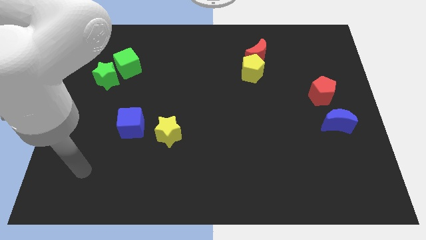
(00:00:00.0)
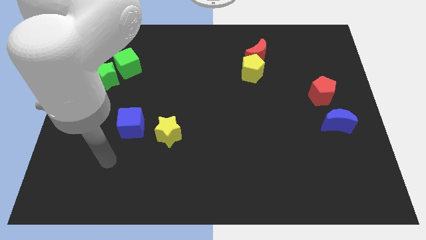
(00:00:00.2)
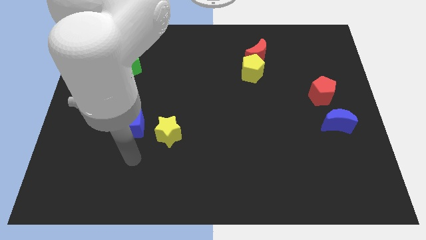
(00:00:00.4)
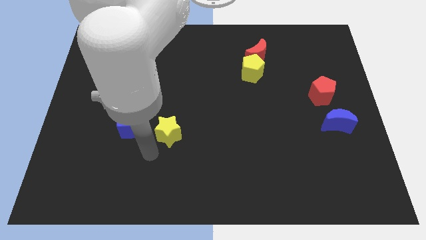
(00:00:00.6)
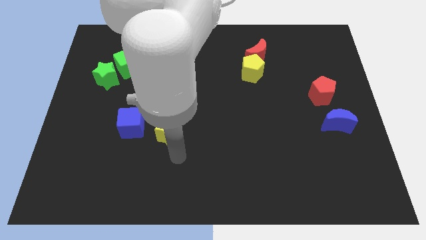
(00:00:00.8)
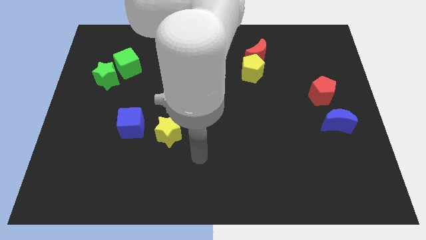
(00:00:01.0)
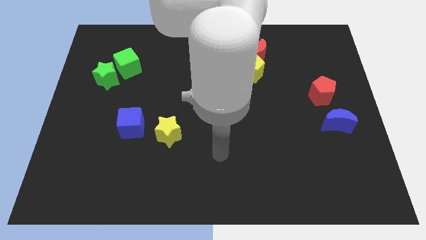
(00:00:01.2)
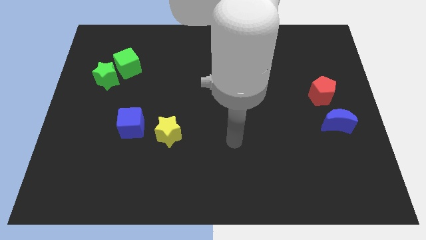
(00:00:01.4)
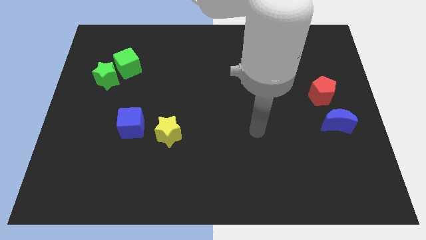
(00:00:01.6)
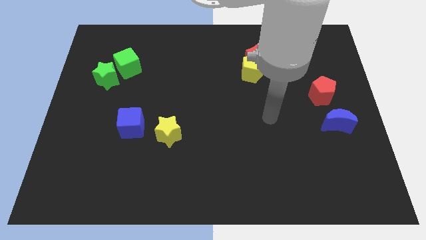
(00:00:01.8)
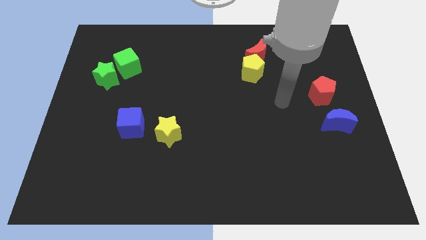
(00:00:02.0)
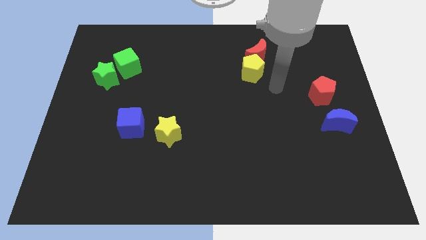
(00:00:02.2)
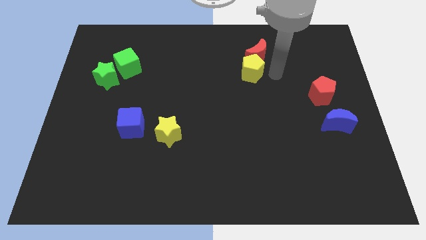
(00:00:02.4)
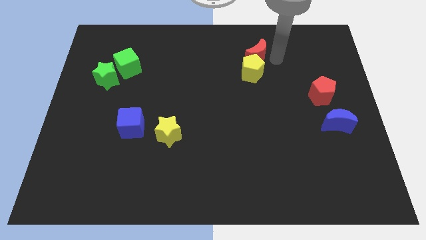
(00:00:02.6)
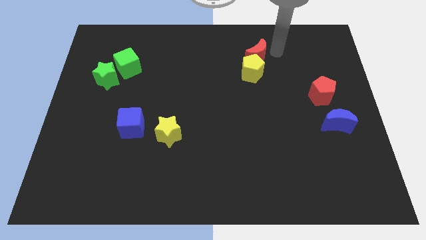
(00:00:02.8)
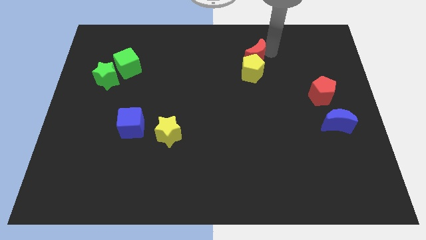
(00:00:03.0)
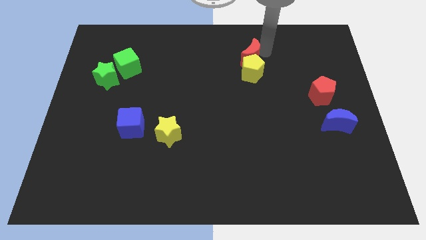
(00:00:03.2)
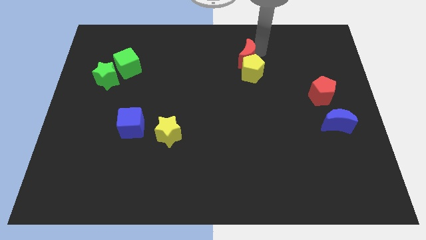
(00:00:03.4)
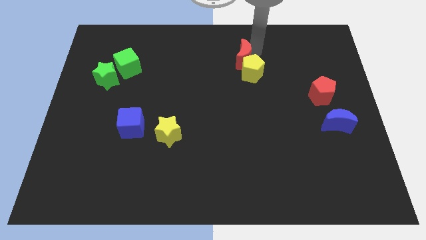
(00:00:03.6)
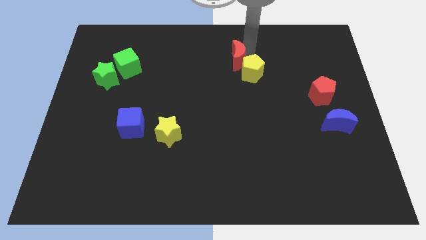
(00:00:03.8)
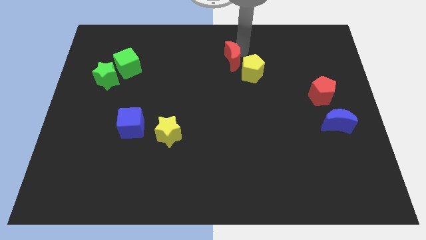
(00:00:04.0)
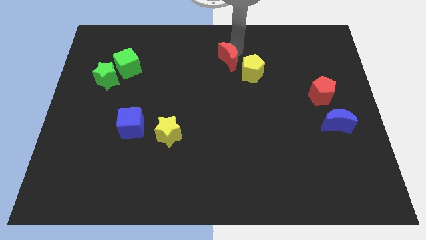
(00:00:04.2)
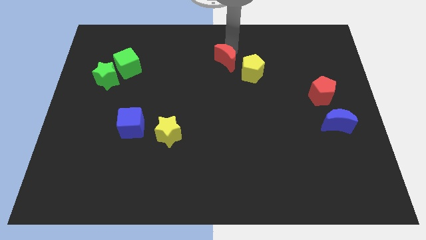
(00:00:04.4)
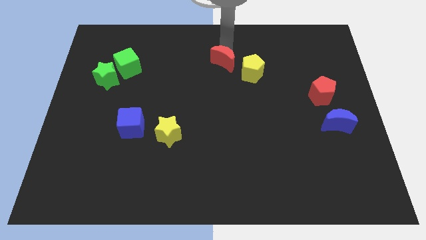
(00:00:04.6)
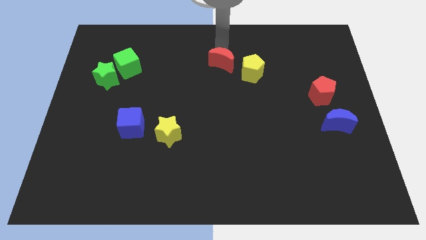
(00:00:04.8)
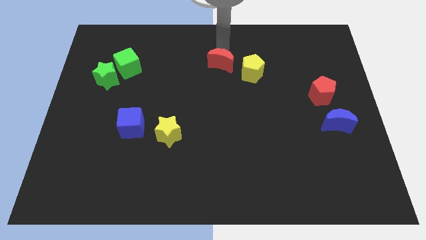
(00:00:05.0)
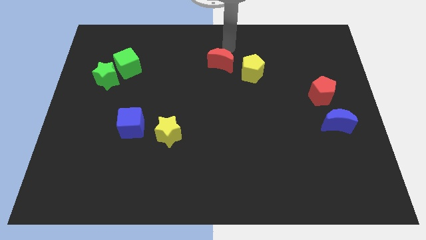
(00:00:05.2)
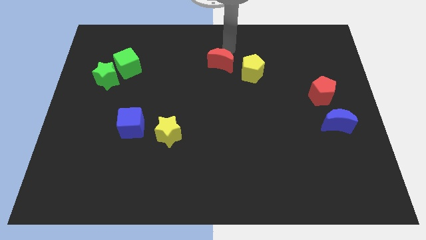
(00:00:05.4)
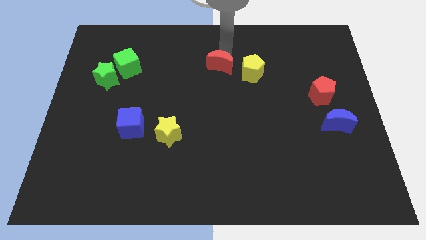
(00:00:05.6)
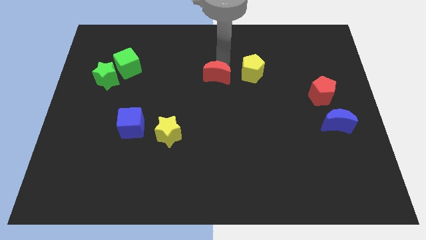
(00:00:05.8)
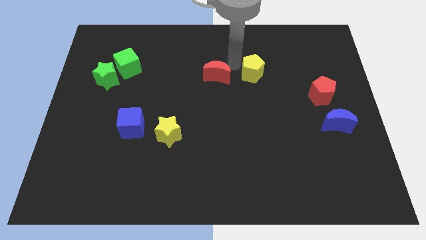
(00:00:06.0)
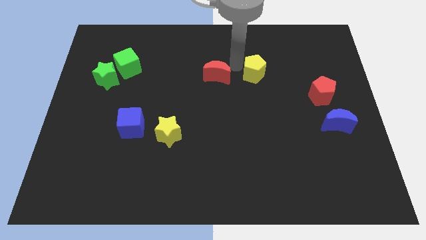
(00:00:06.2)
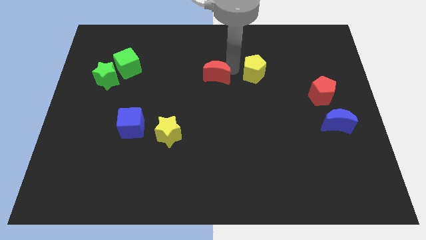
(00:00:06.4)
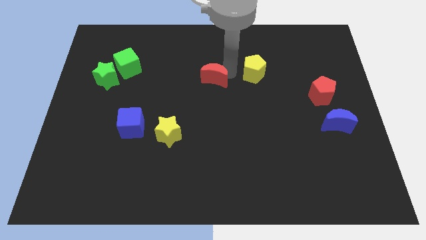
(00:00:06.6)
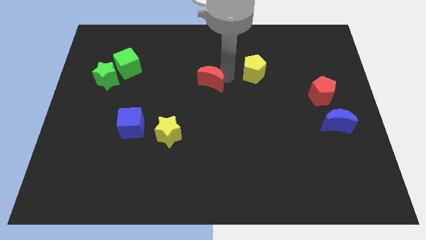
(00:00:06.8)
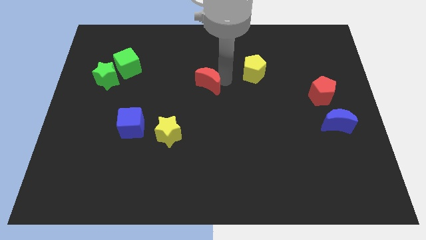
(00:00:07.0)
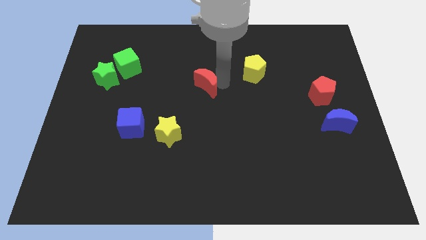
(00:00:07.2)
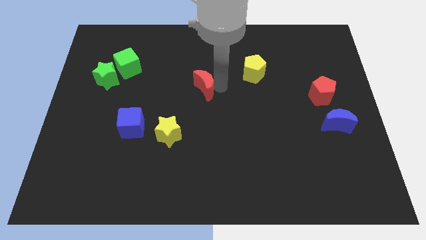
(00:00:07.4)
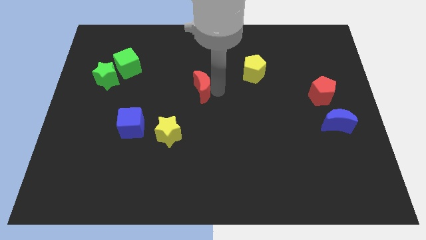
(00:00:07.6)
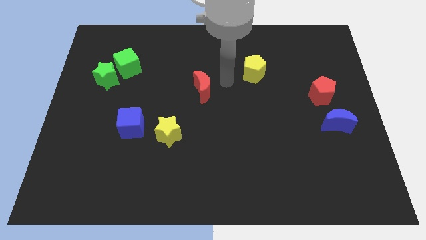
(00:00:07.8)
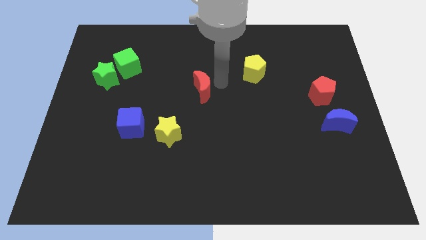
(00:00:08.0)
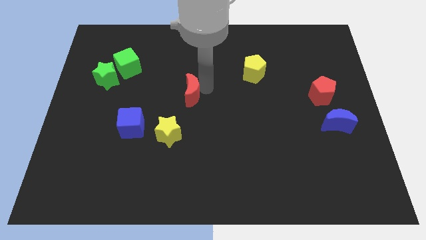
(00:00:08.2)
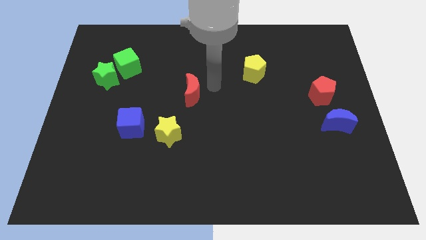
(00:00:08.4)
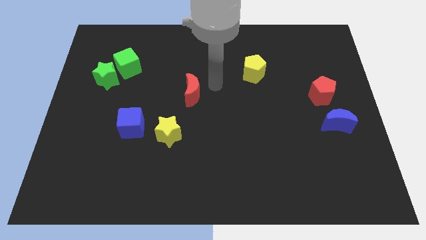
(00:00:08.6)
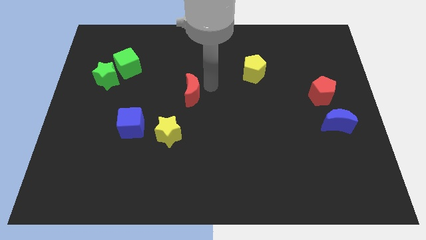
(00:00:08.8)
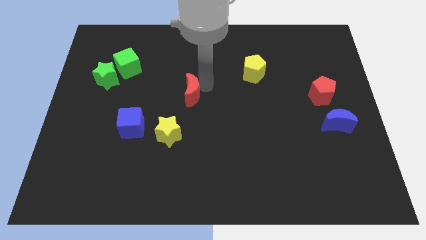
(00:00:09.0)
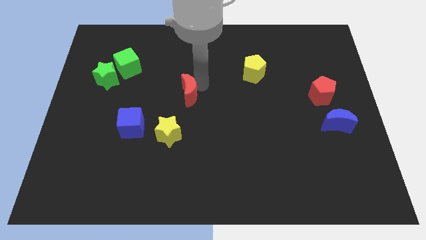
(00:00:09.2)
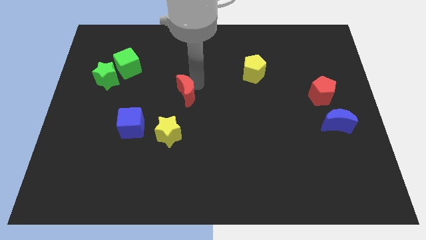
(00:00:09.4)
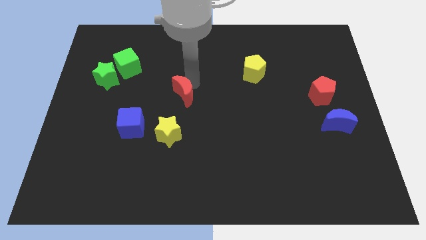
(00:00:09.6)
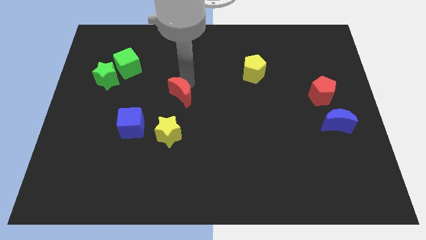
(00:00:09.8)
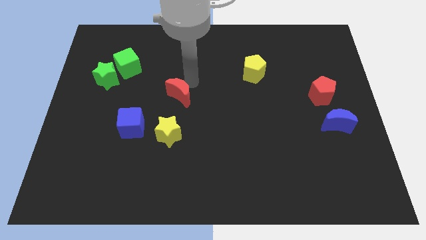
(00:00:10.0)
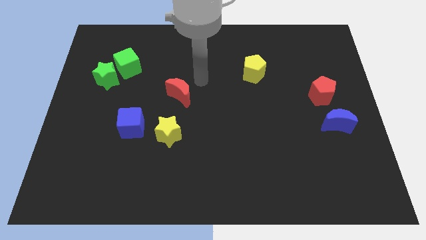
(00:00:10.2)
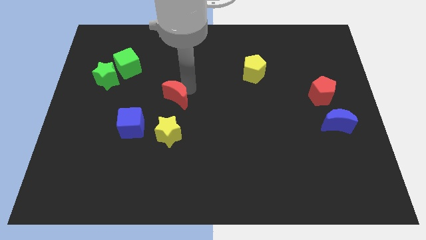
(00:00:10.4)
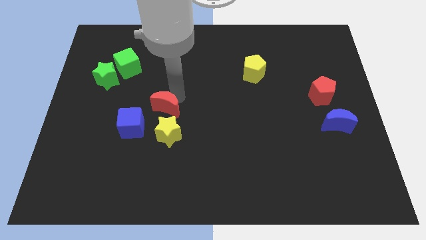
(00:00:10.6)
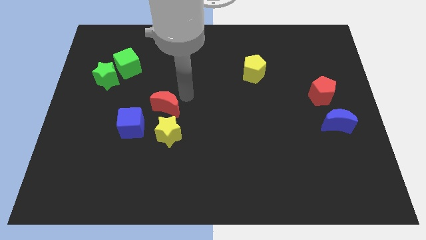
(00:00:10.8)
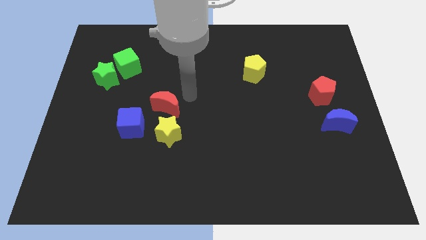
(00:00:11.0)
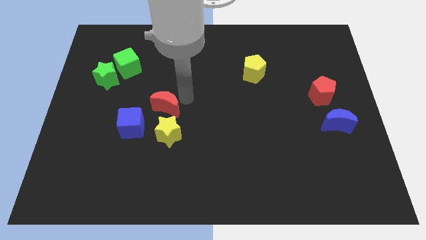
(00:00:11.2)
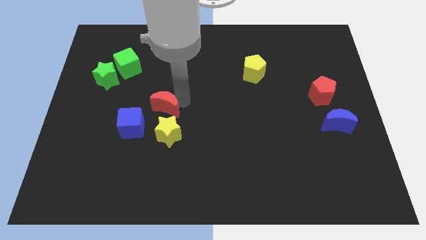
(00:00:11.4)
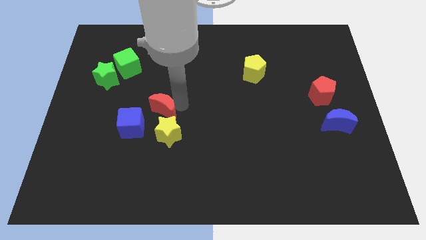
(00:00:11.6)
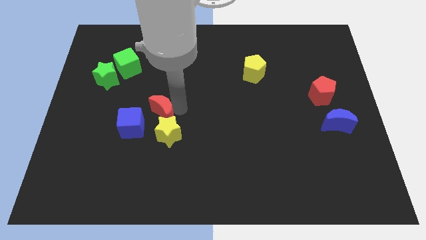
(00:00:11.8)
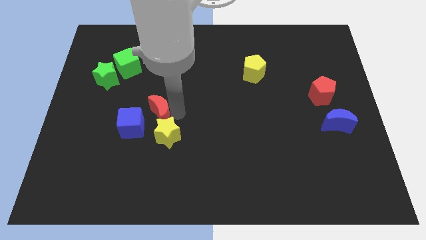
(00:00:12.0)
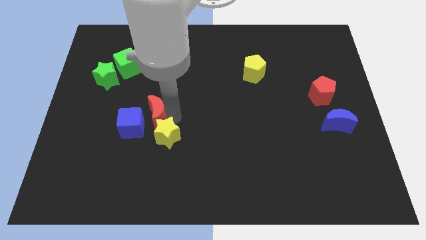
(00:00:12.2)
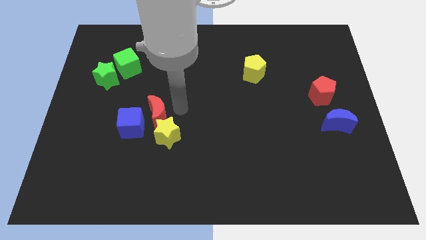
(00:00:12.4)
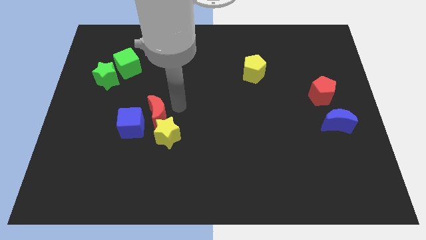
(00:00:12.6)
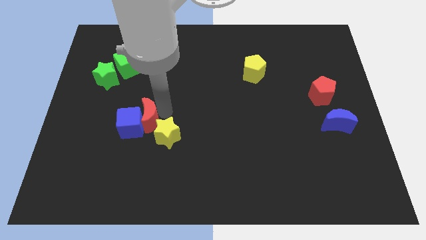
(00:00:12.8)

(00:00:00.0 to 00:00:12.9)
put the red moon next to the blue cube
